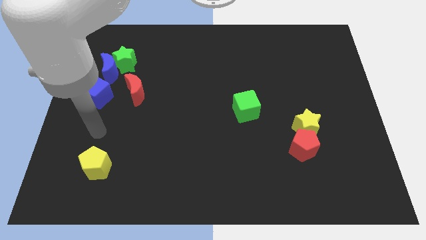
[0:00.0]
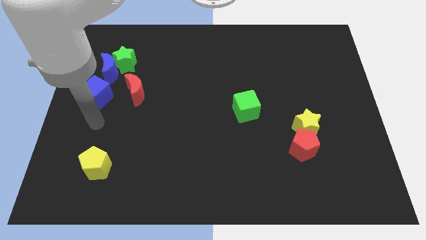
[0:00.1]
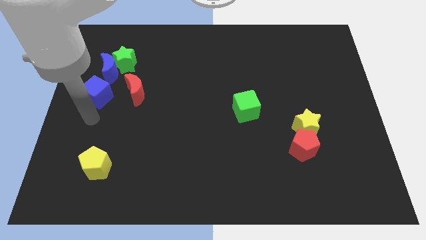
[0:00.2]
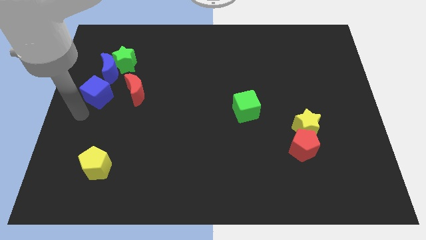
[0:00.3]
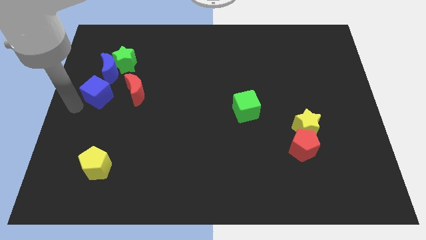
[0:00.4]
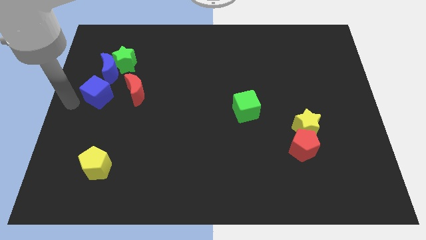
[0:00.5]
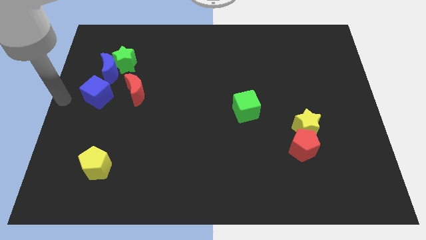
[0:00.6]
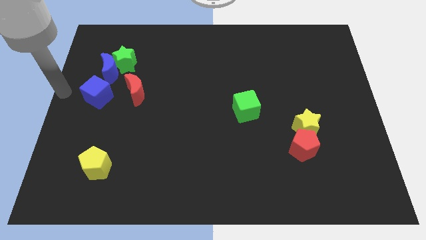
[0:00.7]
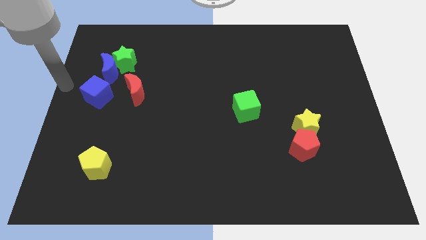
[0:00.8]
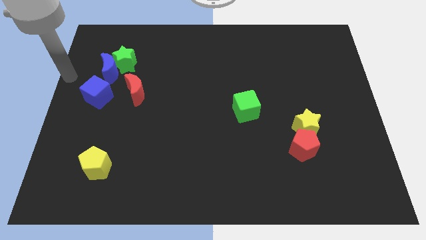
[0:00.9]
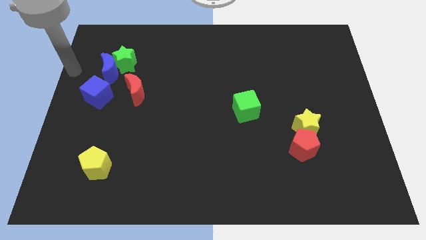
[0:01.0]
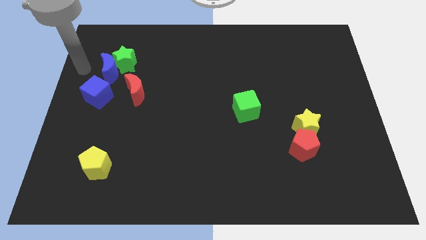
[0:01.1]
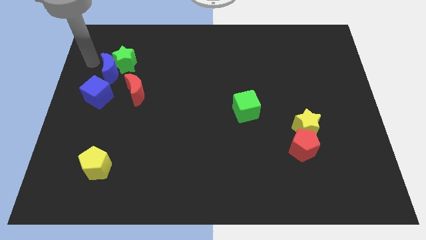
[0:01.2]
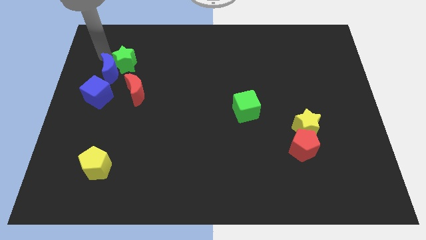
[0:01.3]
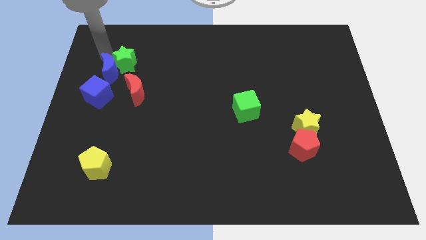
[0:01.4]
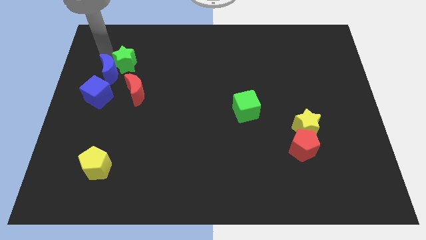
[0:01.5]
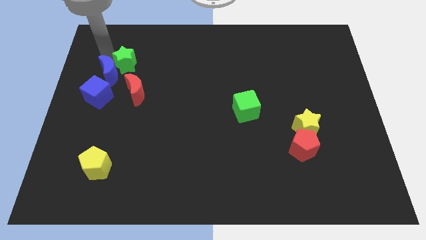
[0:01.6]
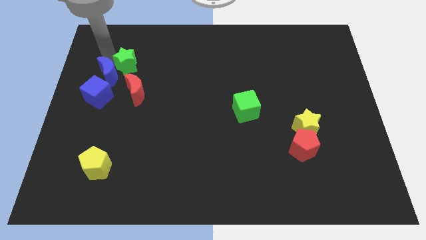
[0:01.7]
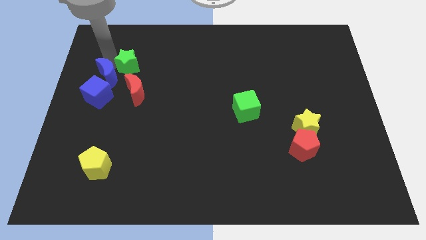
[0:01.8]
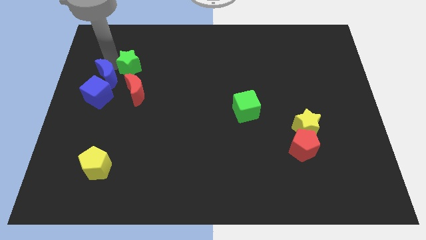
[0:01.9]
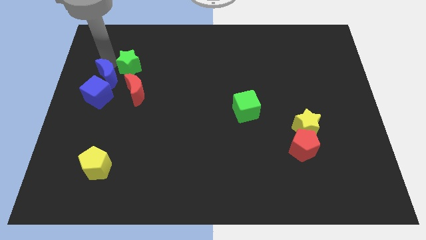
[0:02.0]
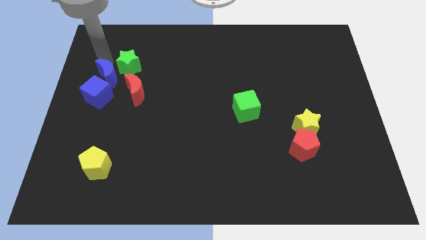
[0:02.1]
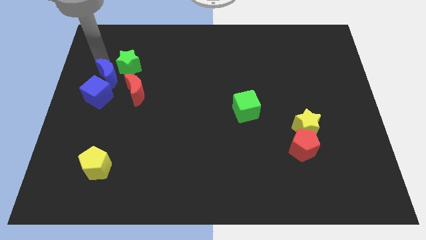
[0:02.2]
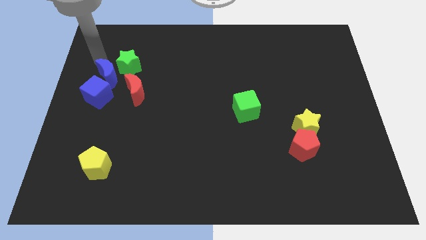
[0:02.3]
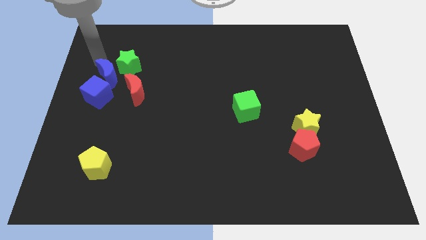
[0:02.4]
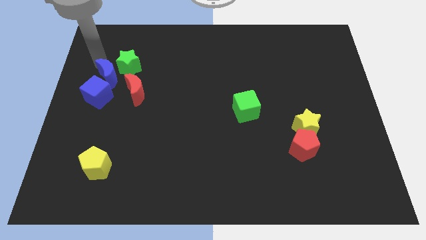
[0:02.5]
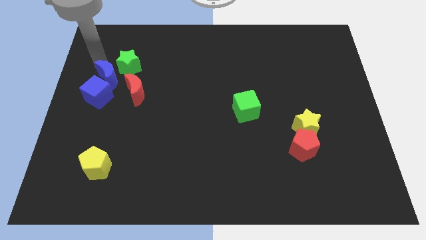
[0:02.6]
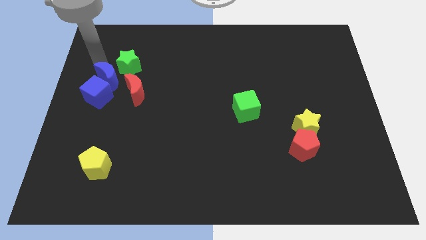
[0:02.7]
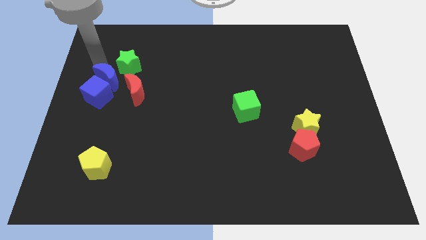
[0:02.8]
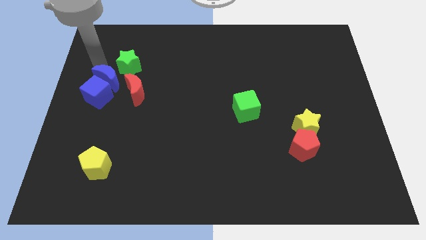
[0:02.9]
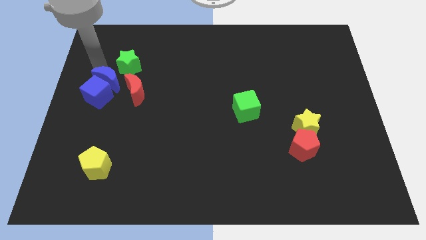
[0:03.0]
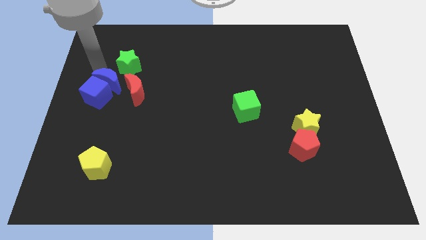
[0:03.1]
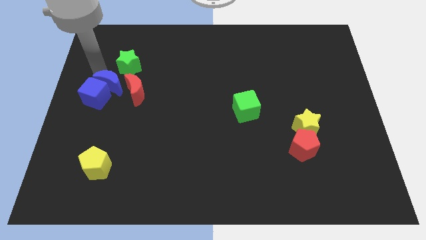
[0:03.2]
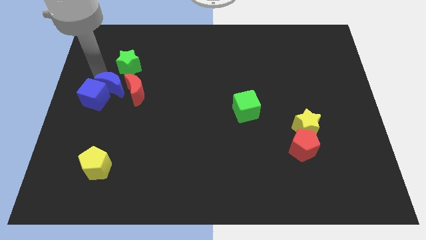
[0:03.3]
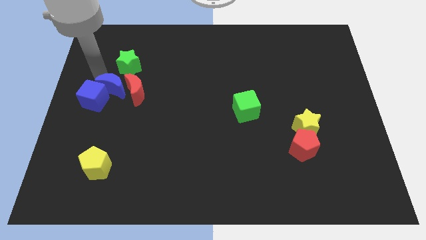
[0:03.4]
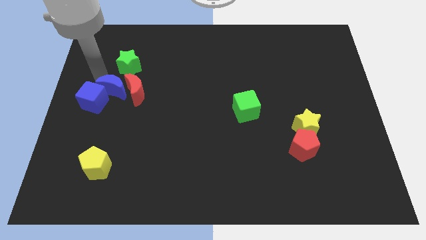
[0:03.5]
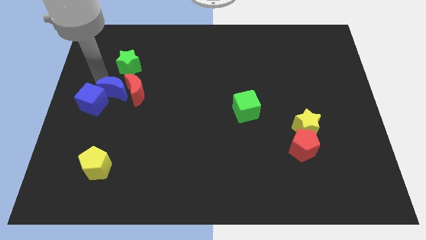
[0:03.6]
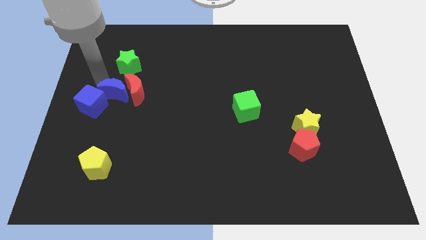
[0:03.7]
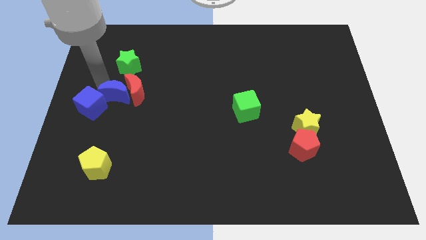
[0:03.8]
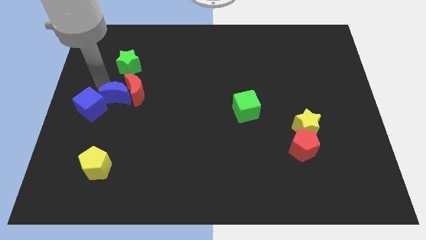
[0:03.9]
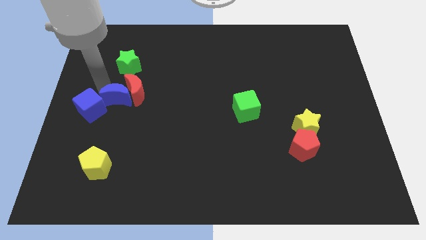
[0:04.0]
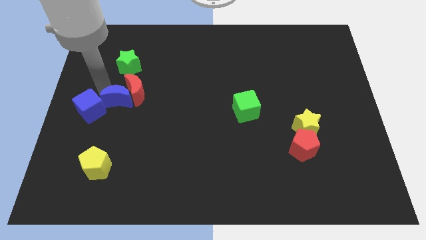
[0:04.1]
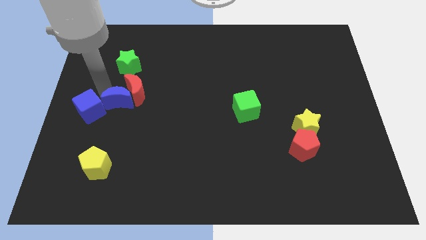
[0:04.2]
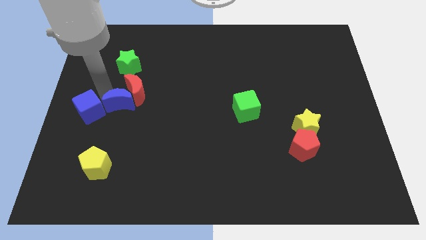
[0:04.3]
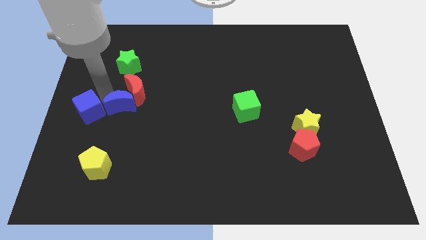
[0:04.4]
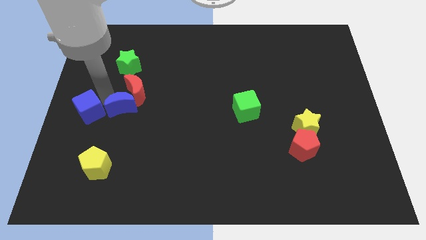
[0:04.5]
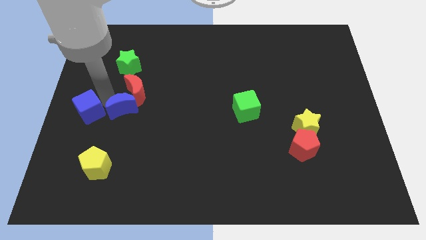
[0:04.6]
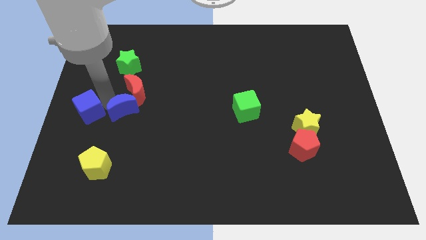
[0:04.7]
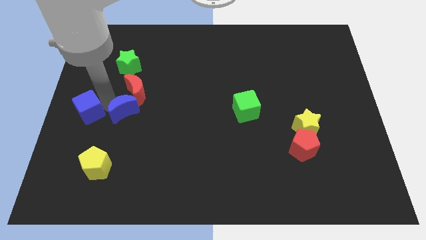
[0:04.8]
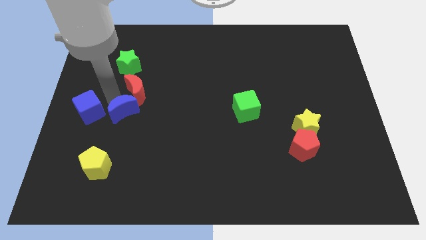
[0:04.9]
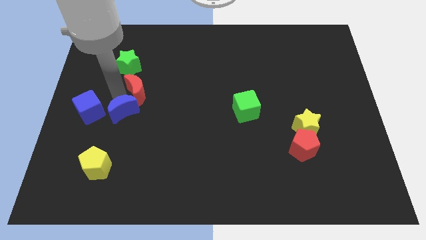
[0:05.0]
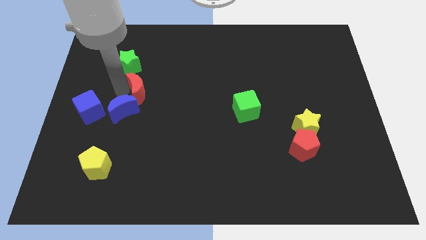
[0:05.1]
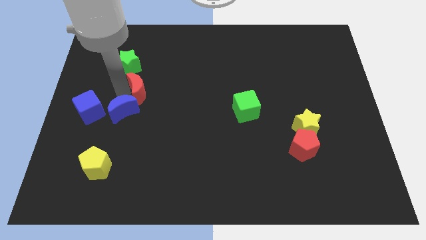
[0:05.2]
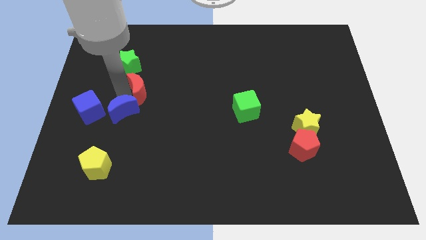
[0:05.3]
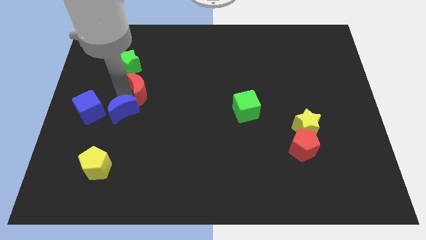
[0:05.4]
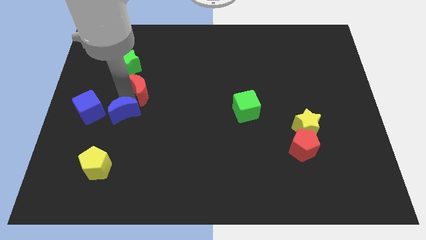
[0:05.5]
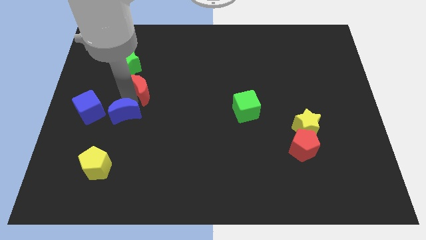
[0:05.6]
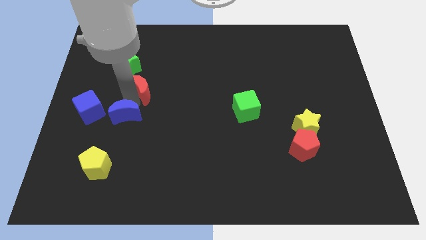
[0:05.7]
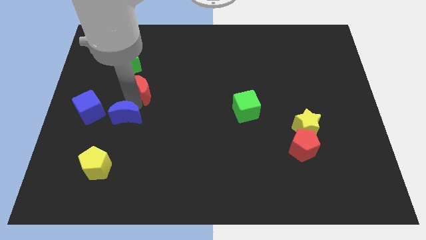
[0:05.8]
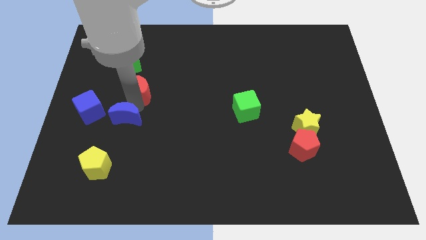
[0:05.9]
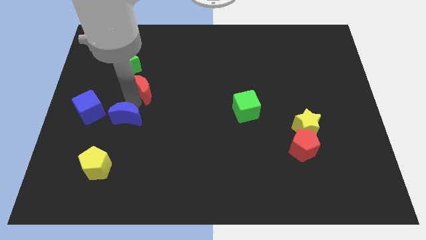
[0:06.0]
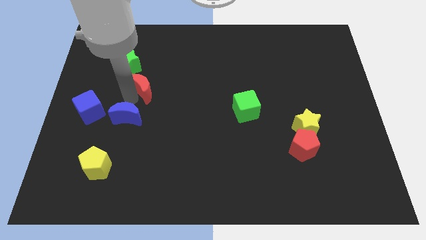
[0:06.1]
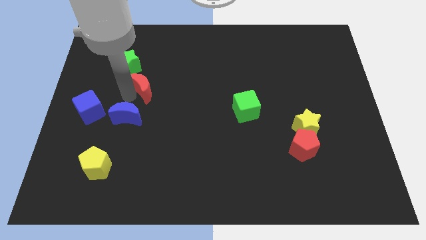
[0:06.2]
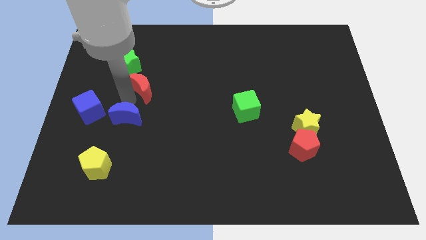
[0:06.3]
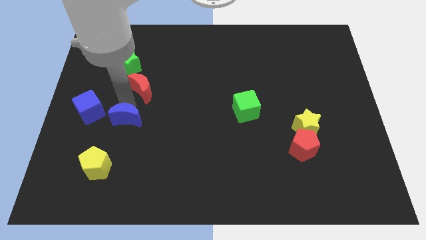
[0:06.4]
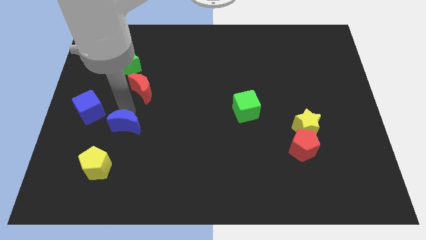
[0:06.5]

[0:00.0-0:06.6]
put the blue moon to the top right of the yellow pentagon
